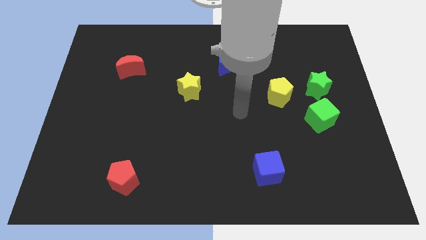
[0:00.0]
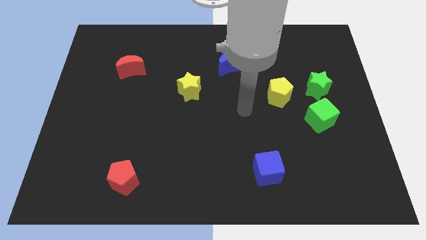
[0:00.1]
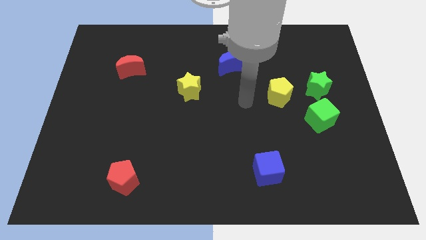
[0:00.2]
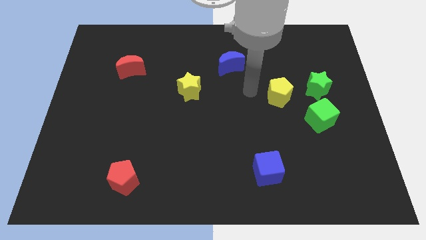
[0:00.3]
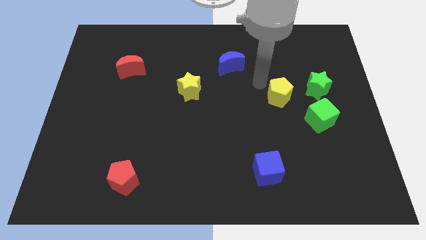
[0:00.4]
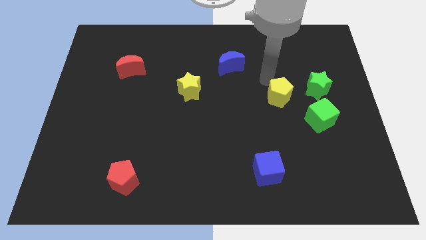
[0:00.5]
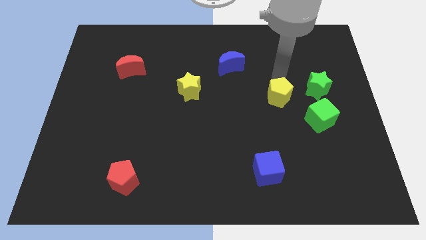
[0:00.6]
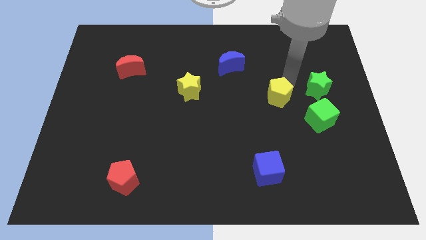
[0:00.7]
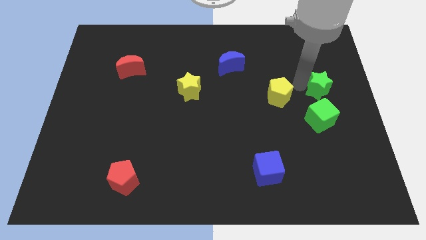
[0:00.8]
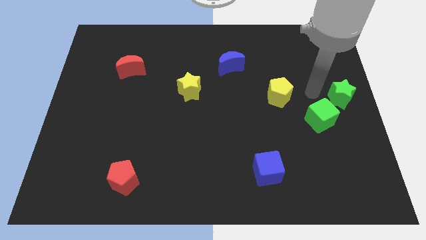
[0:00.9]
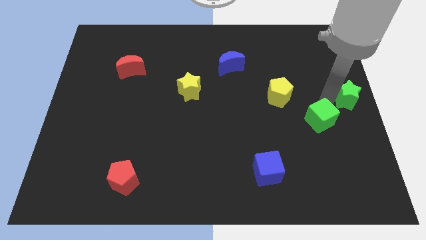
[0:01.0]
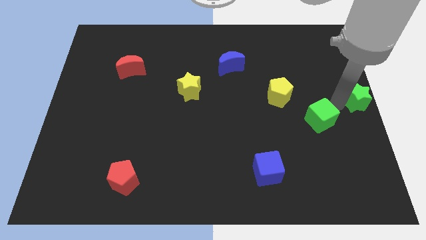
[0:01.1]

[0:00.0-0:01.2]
move the green cube away from the green star

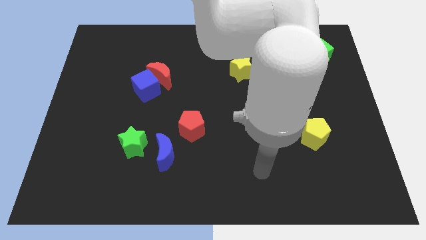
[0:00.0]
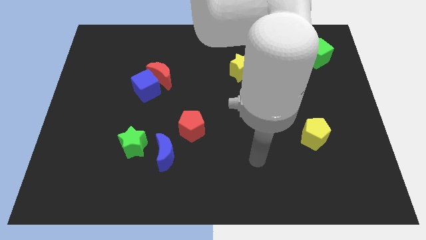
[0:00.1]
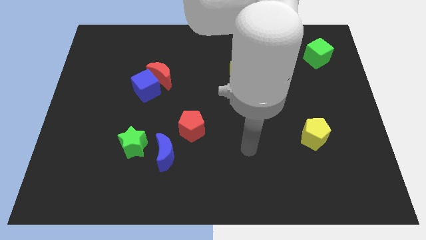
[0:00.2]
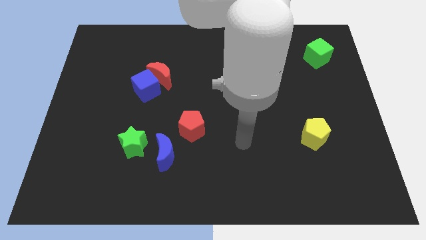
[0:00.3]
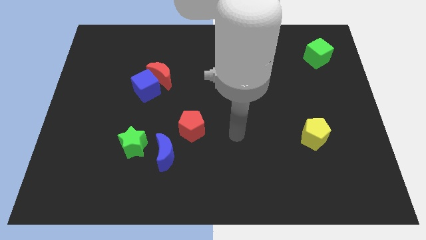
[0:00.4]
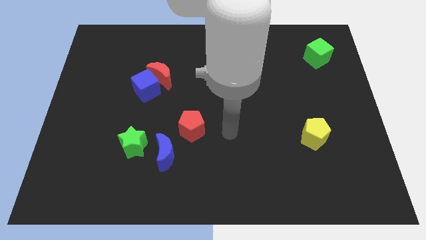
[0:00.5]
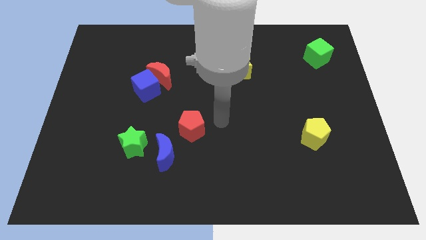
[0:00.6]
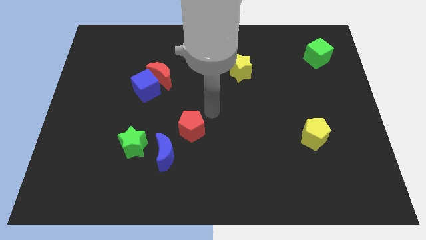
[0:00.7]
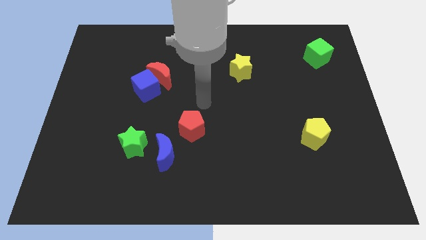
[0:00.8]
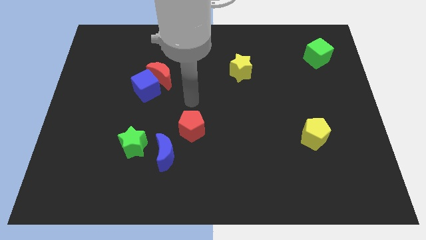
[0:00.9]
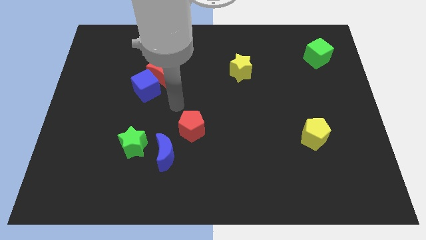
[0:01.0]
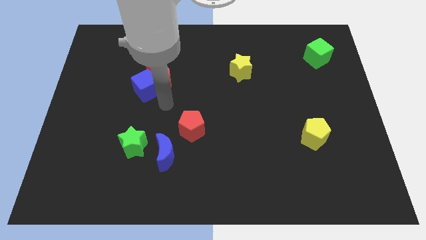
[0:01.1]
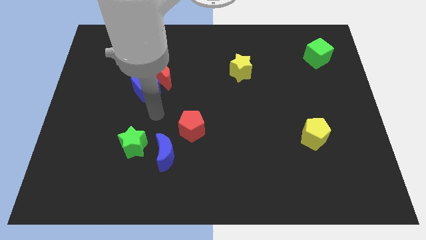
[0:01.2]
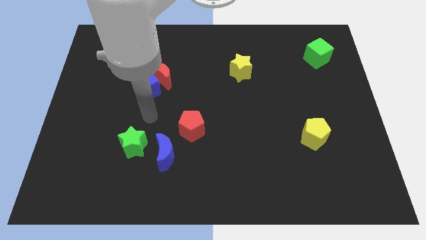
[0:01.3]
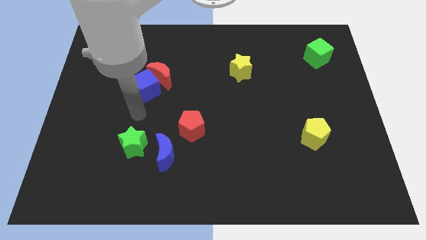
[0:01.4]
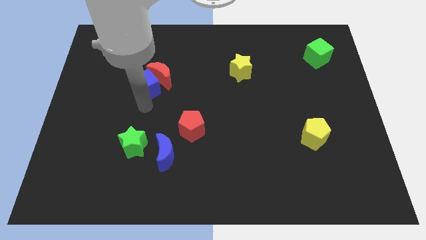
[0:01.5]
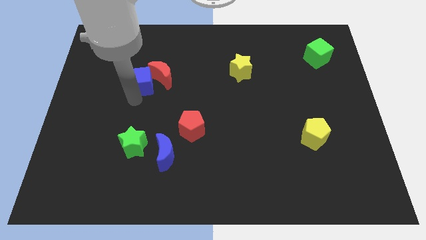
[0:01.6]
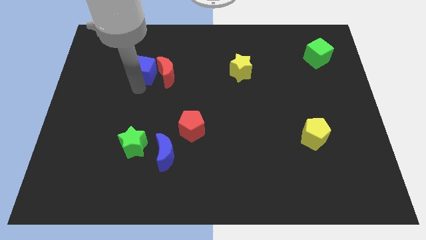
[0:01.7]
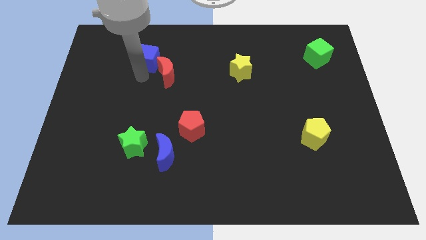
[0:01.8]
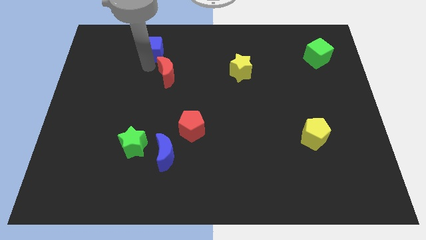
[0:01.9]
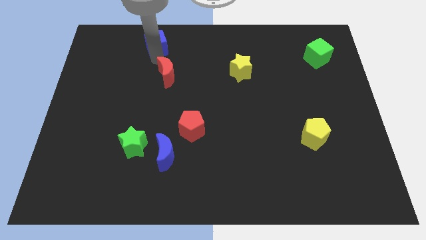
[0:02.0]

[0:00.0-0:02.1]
separate the red moon from the blue cube

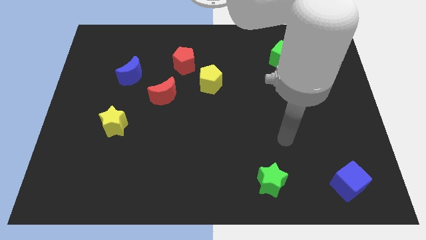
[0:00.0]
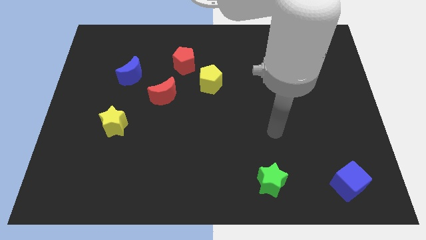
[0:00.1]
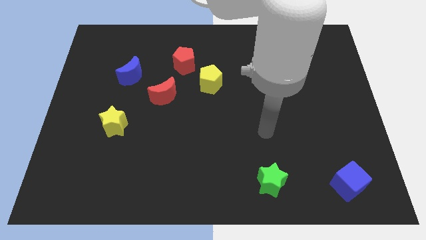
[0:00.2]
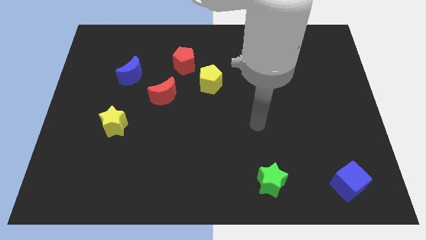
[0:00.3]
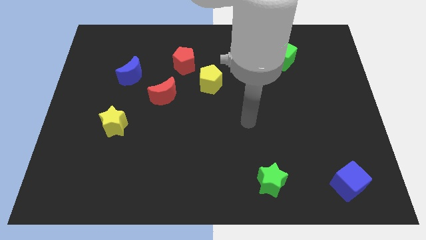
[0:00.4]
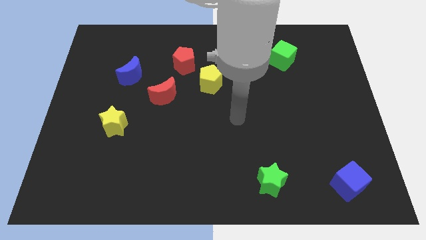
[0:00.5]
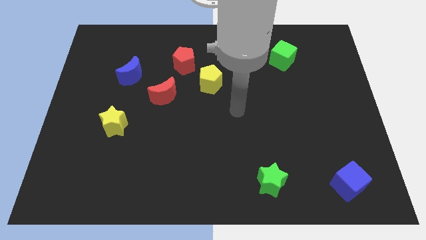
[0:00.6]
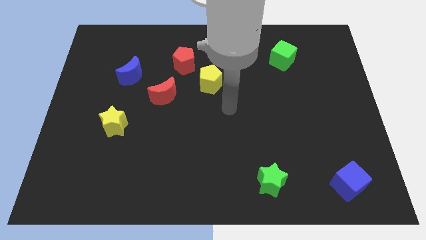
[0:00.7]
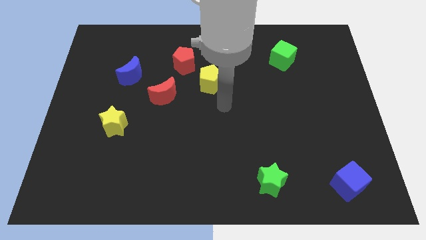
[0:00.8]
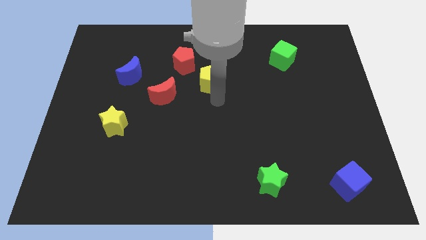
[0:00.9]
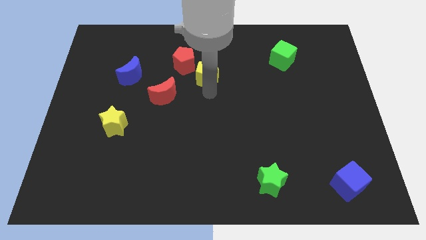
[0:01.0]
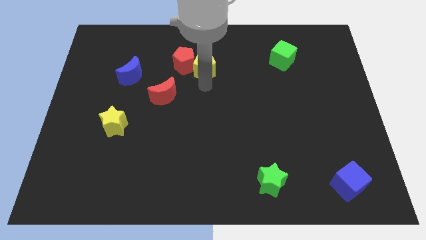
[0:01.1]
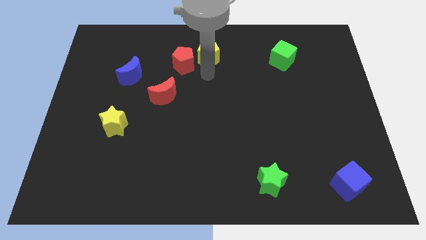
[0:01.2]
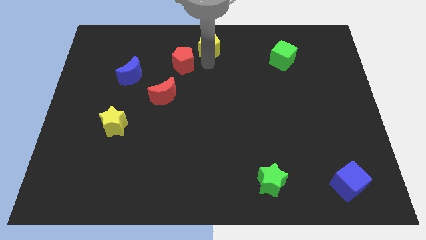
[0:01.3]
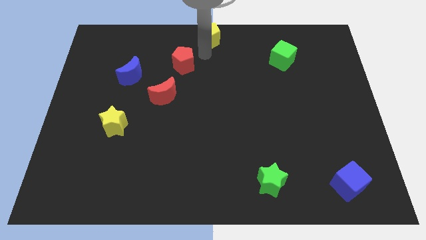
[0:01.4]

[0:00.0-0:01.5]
move the red pentagon away from the yellow pentagon

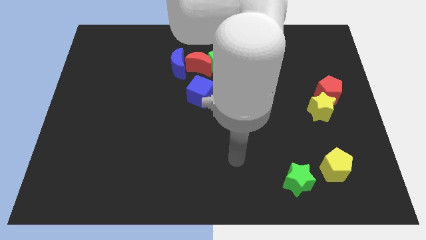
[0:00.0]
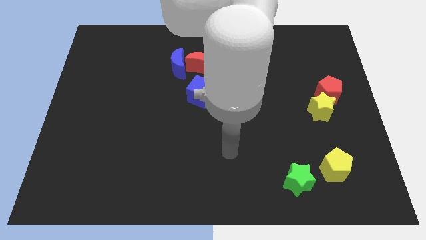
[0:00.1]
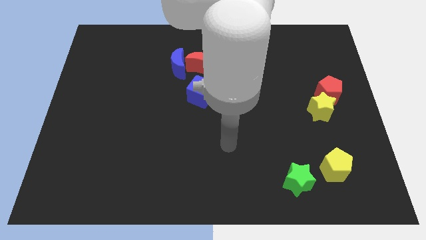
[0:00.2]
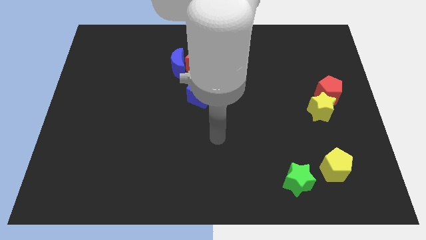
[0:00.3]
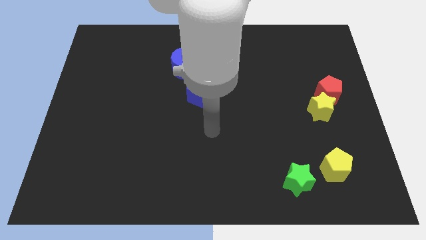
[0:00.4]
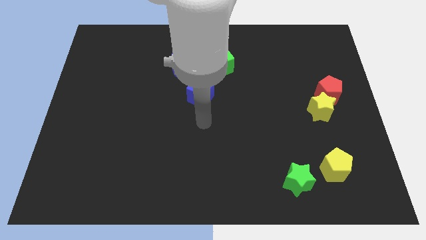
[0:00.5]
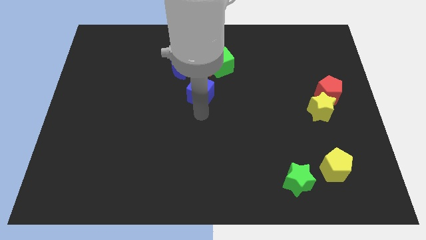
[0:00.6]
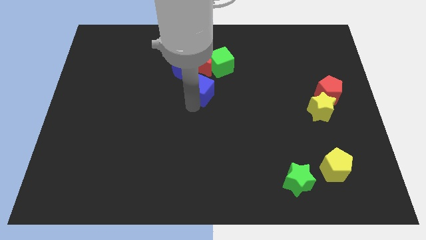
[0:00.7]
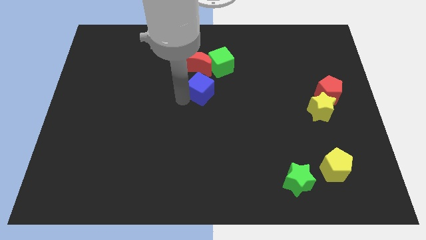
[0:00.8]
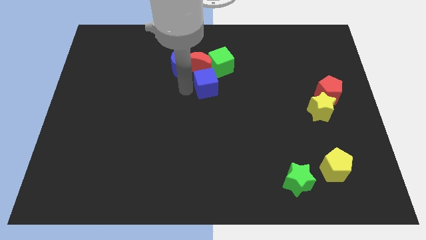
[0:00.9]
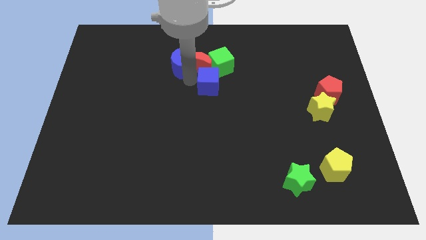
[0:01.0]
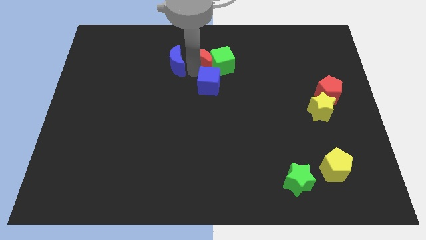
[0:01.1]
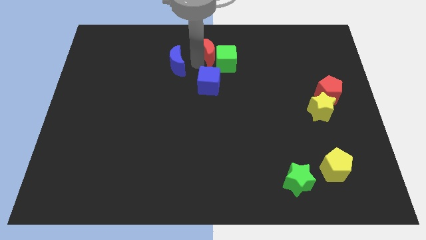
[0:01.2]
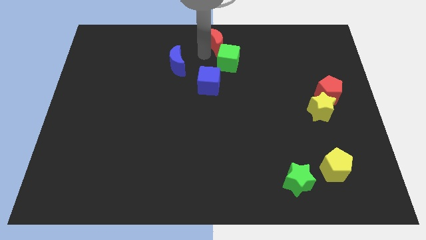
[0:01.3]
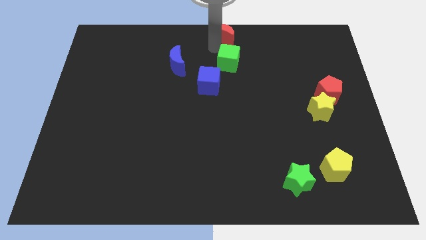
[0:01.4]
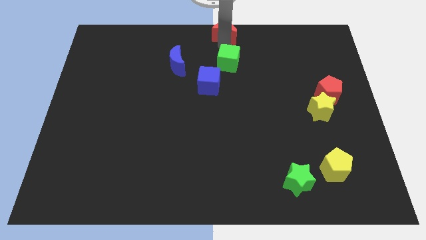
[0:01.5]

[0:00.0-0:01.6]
pull the green cube apart from the red moon

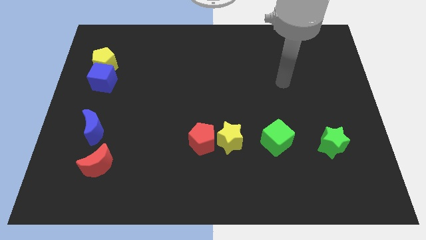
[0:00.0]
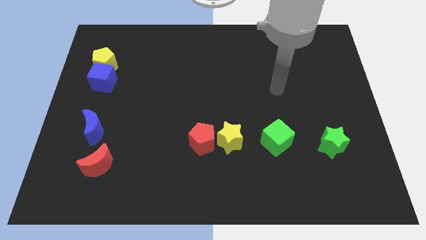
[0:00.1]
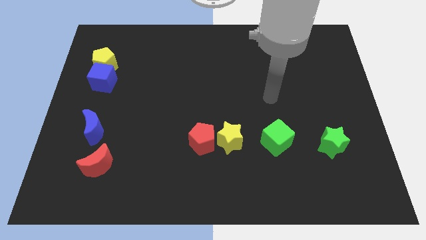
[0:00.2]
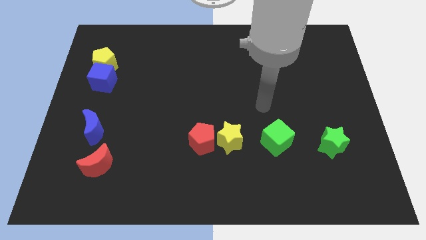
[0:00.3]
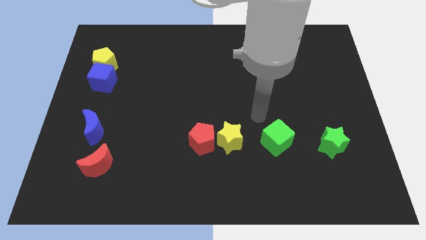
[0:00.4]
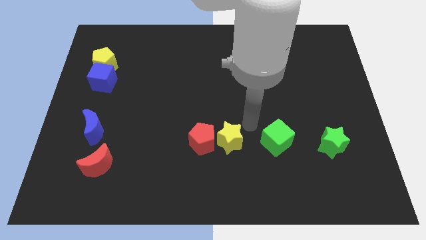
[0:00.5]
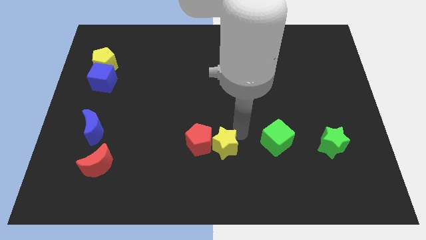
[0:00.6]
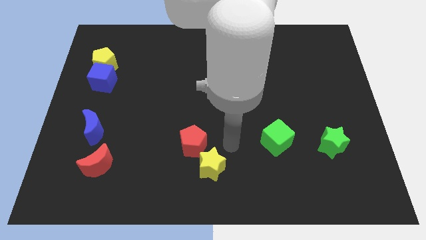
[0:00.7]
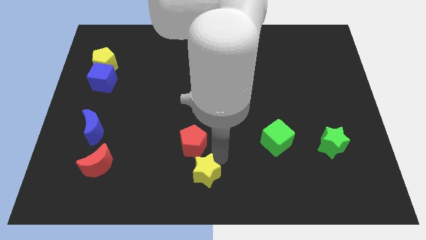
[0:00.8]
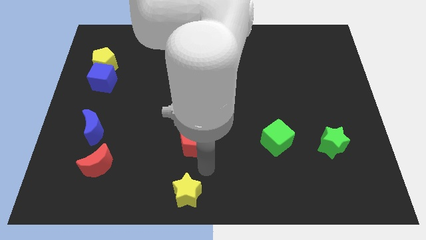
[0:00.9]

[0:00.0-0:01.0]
separate the red pentagon from the yellow star

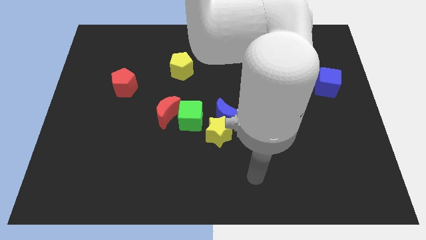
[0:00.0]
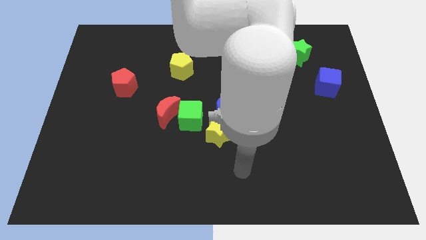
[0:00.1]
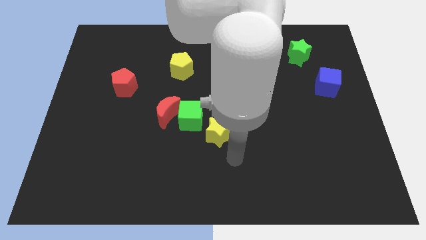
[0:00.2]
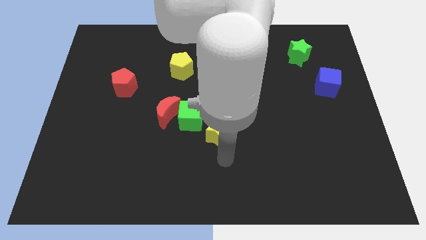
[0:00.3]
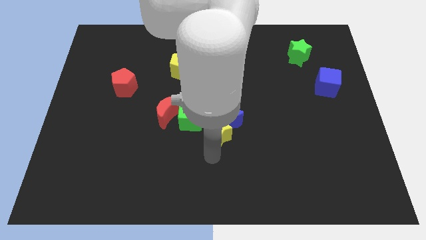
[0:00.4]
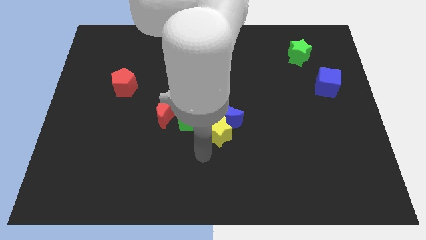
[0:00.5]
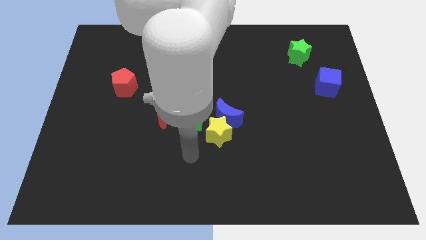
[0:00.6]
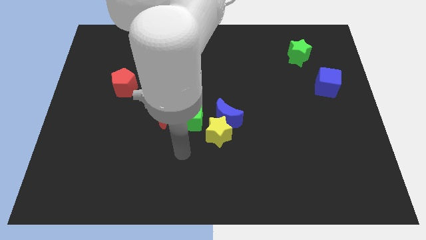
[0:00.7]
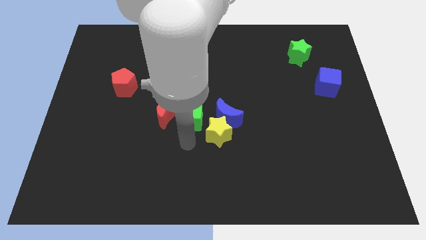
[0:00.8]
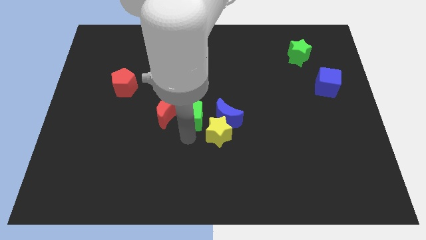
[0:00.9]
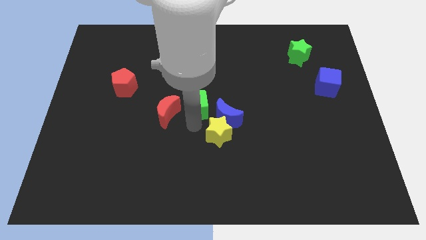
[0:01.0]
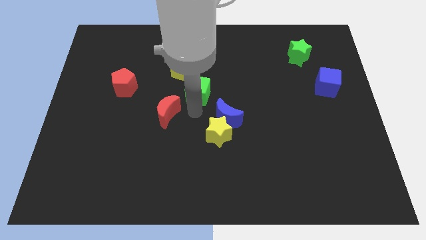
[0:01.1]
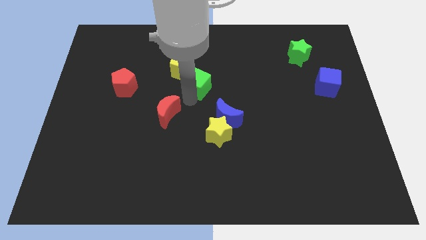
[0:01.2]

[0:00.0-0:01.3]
separate the red moon from the green cube

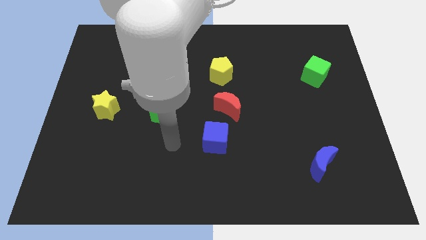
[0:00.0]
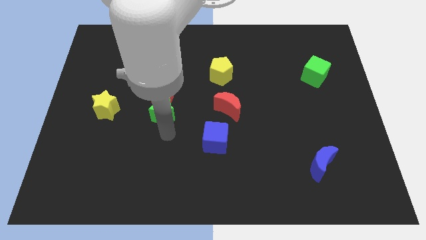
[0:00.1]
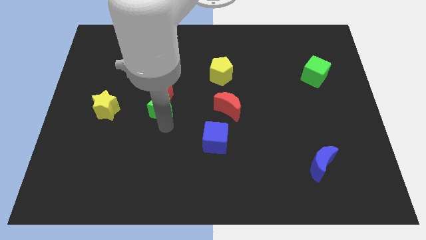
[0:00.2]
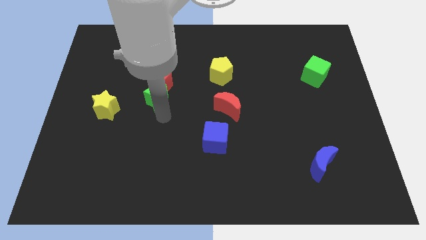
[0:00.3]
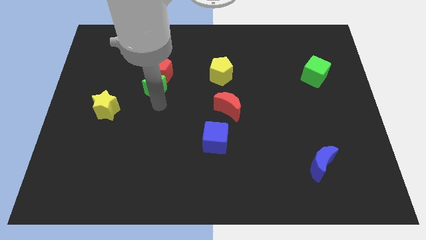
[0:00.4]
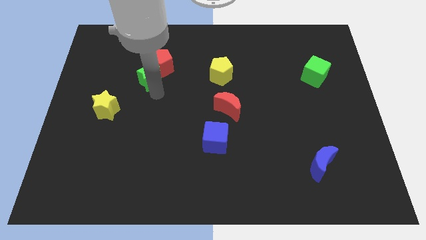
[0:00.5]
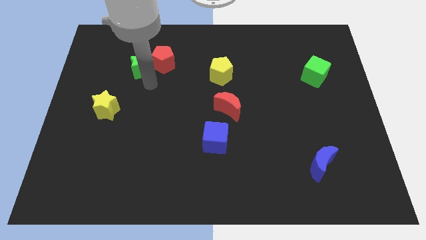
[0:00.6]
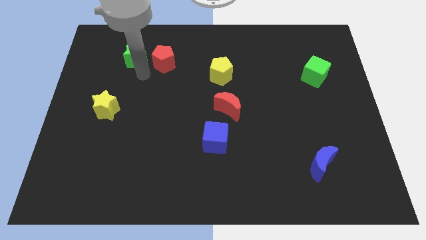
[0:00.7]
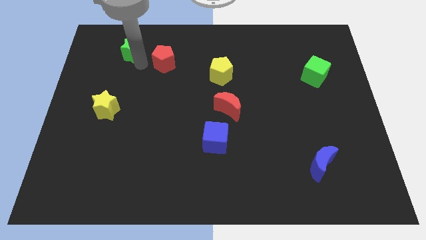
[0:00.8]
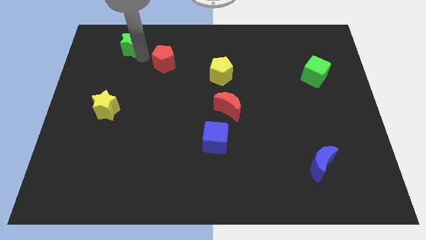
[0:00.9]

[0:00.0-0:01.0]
pull the red pentagon apart from the green star
